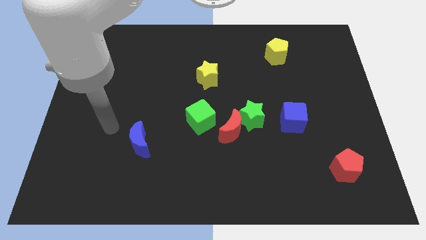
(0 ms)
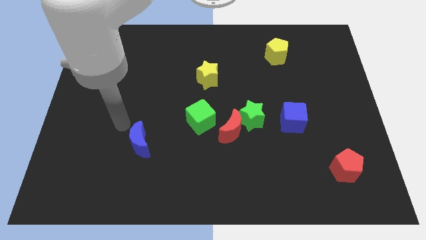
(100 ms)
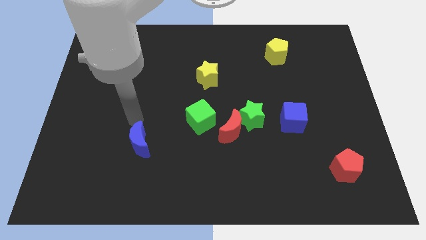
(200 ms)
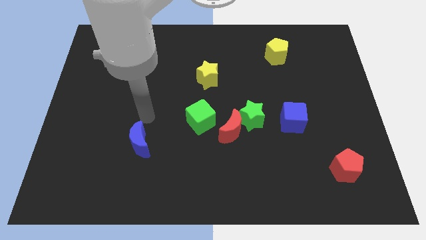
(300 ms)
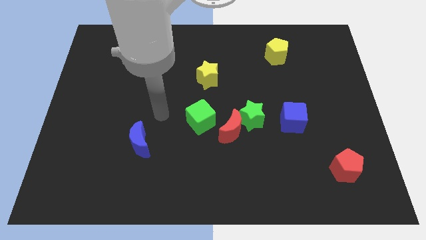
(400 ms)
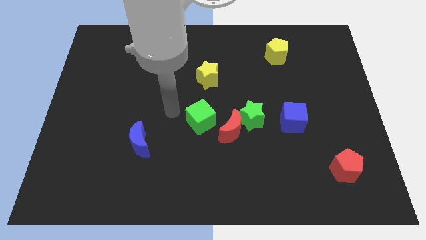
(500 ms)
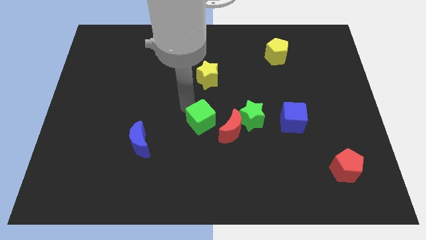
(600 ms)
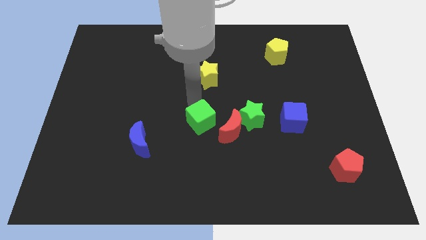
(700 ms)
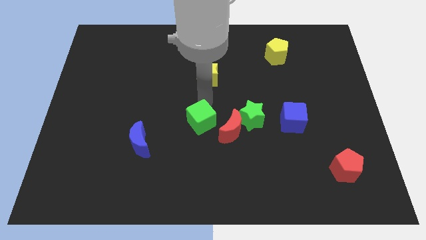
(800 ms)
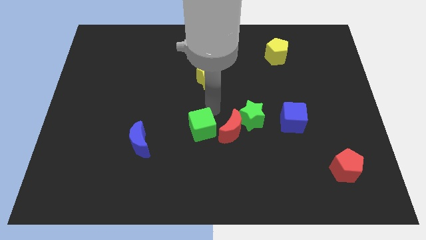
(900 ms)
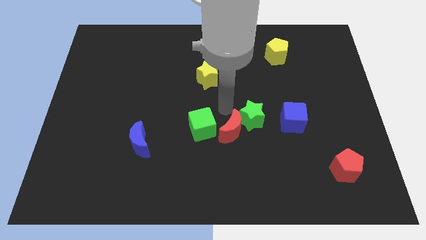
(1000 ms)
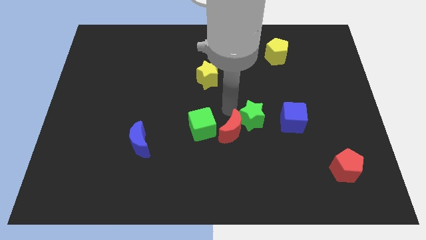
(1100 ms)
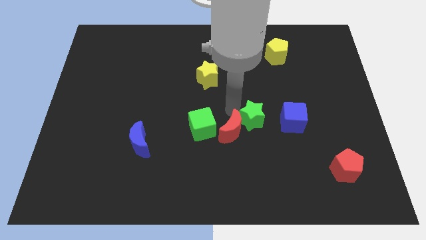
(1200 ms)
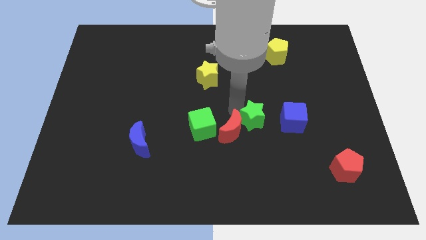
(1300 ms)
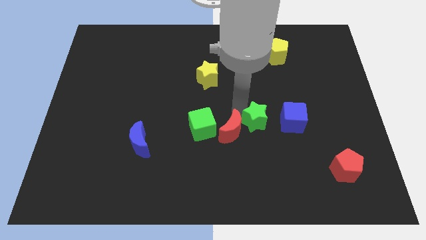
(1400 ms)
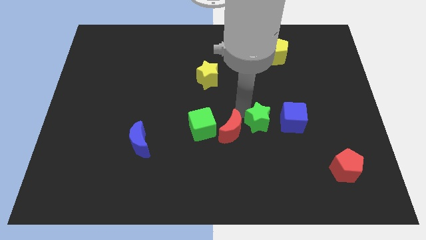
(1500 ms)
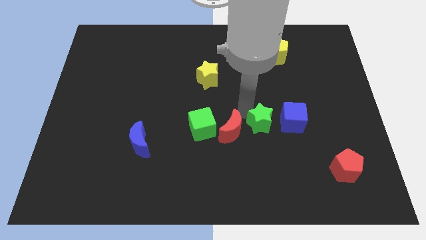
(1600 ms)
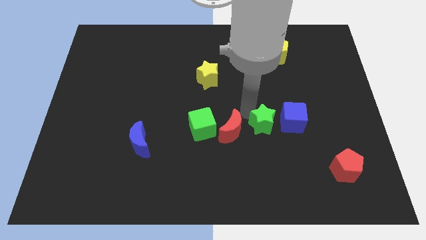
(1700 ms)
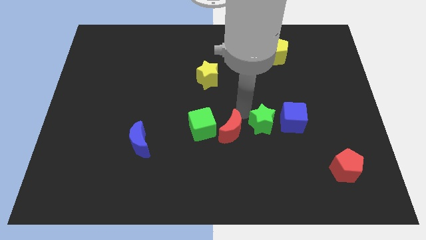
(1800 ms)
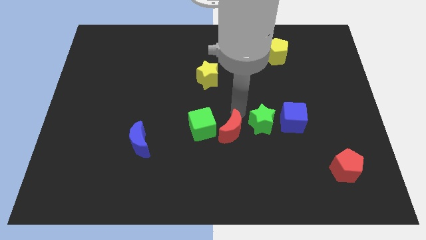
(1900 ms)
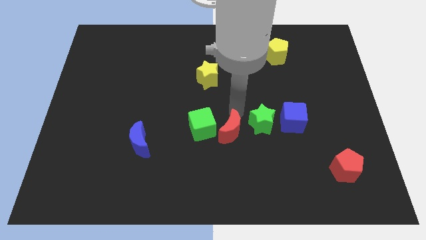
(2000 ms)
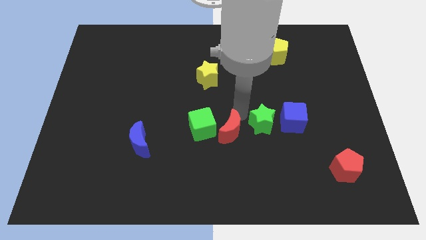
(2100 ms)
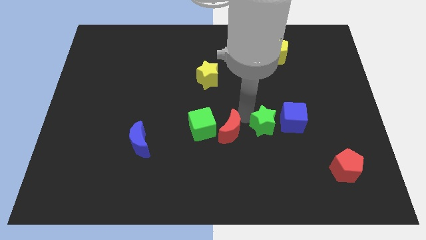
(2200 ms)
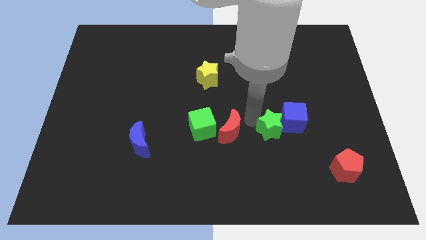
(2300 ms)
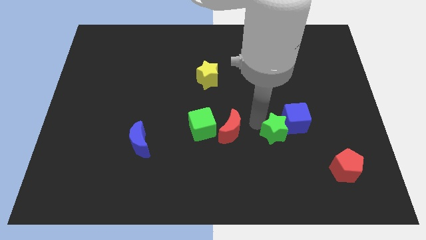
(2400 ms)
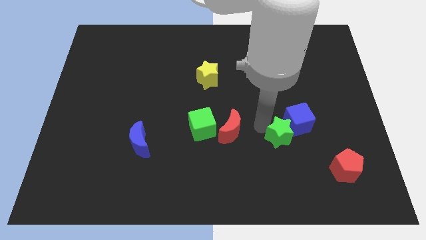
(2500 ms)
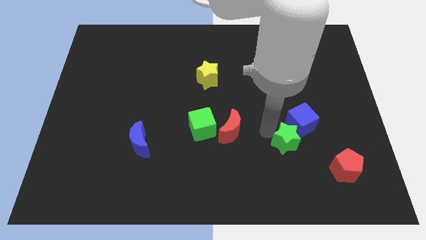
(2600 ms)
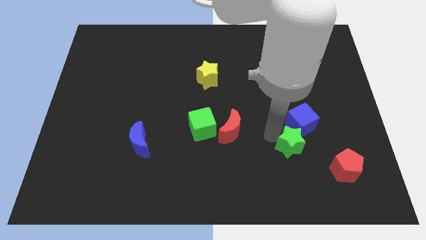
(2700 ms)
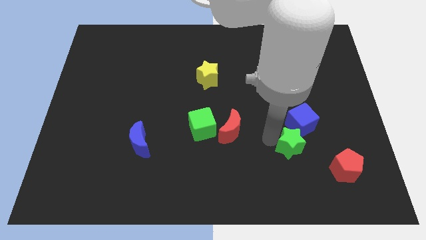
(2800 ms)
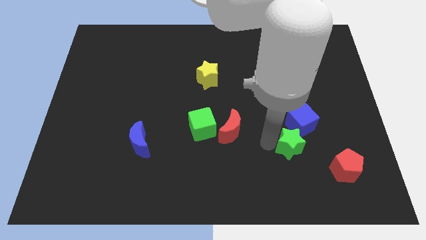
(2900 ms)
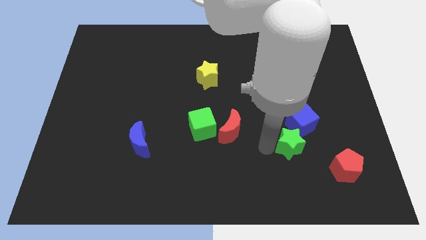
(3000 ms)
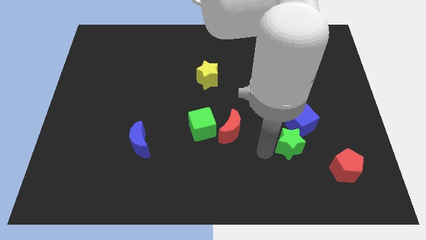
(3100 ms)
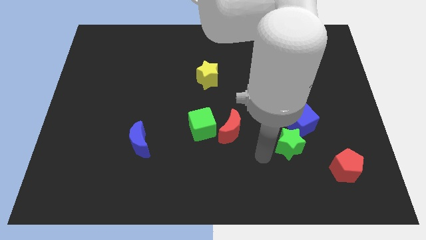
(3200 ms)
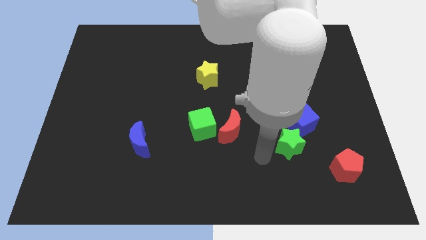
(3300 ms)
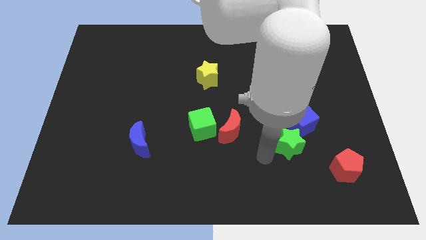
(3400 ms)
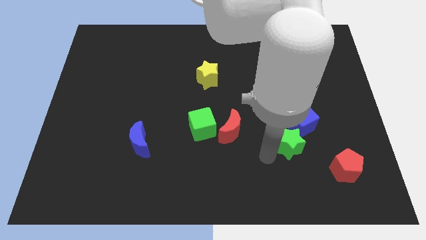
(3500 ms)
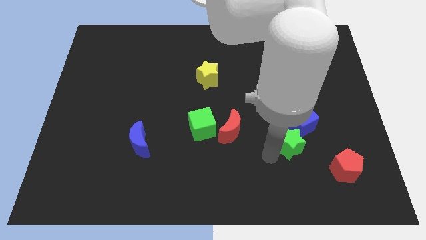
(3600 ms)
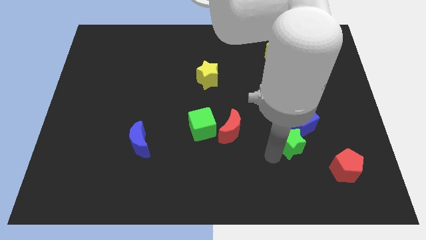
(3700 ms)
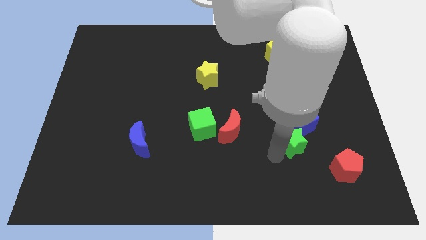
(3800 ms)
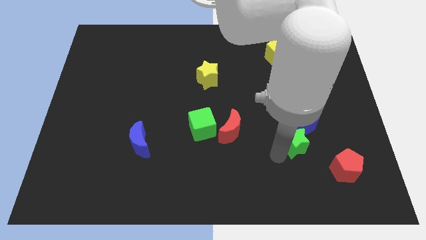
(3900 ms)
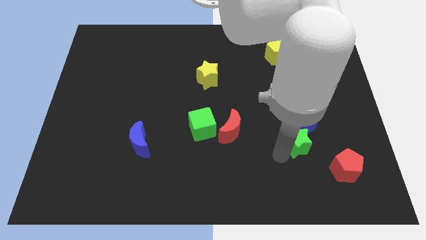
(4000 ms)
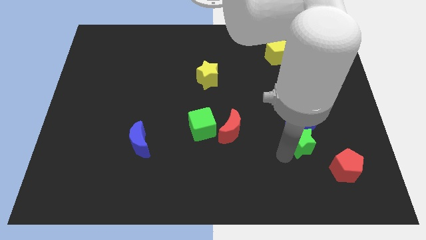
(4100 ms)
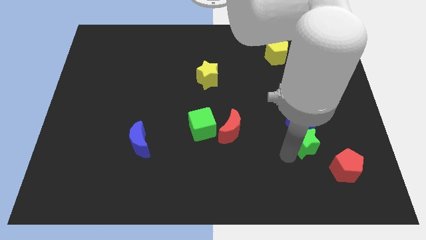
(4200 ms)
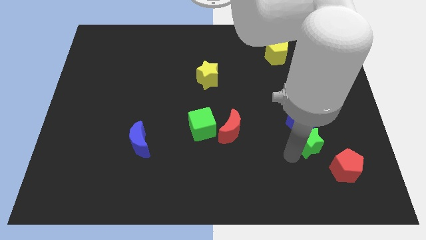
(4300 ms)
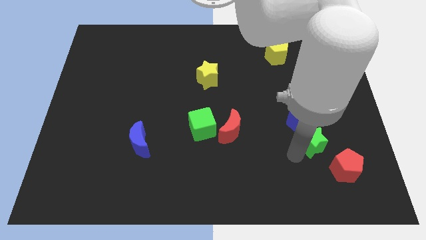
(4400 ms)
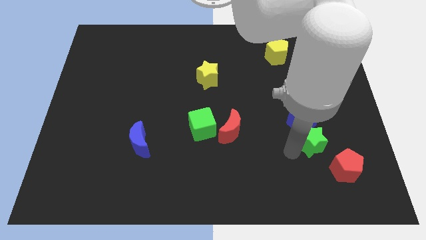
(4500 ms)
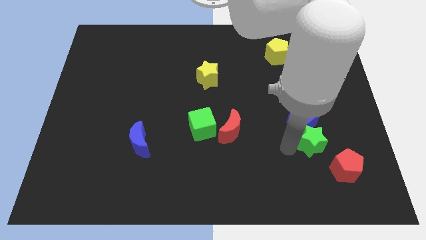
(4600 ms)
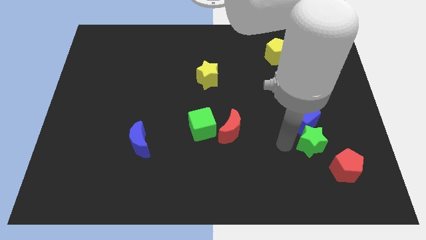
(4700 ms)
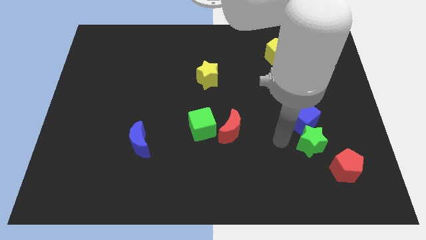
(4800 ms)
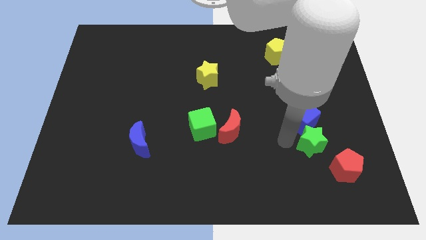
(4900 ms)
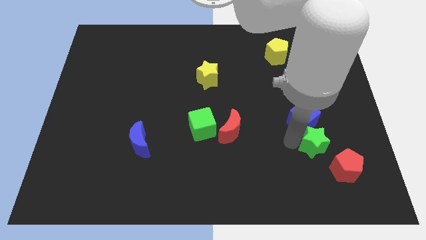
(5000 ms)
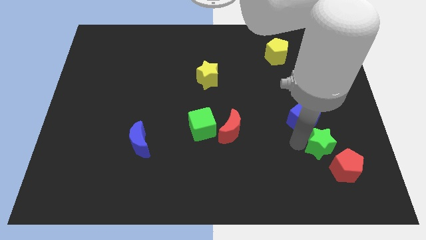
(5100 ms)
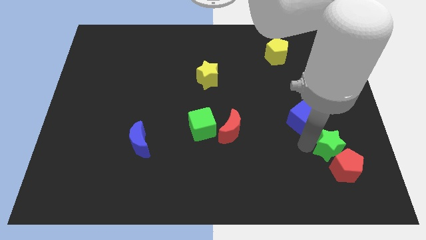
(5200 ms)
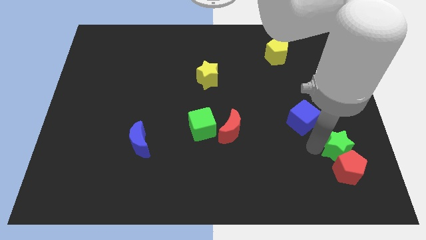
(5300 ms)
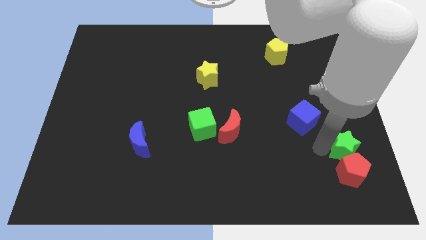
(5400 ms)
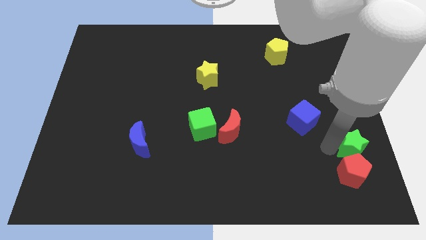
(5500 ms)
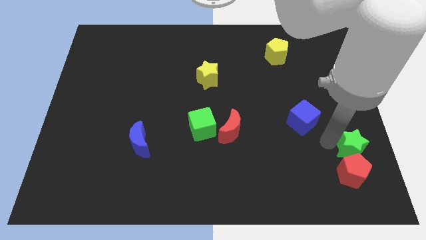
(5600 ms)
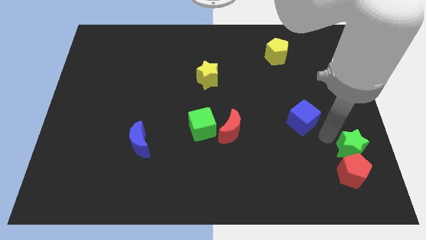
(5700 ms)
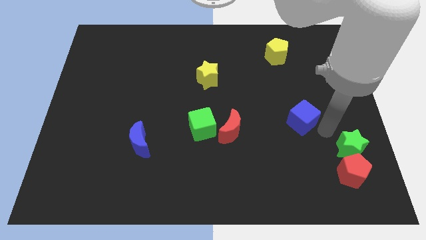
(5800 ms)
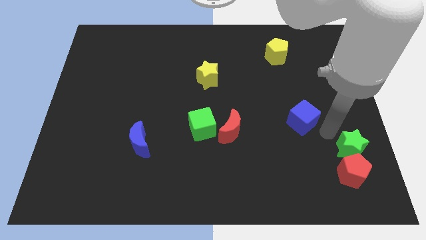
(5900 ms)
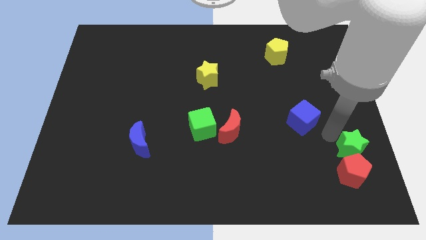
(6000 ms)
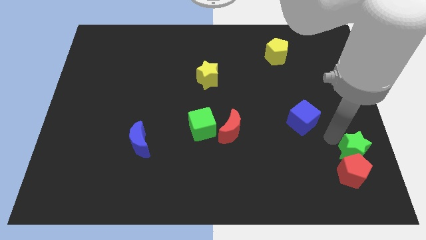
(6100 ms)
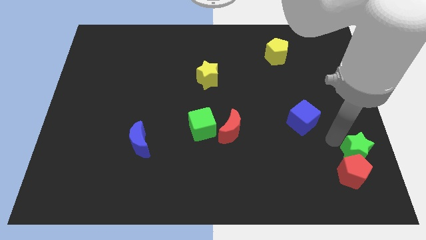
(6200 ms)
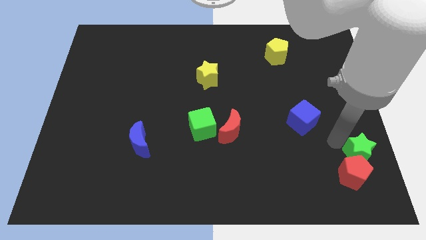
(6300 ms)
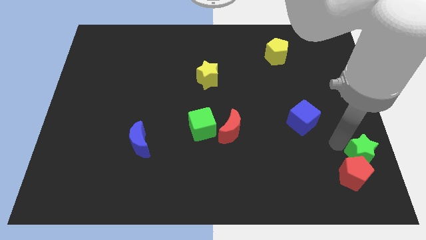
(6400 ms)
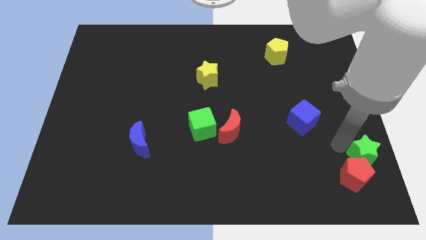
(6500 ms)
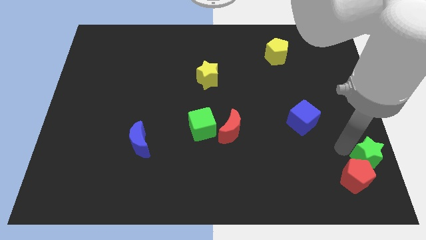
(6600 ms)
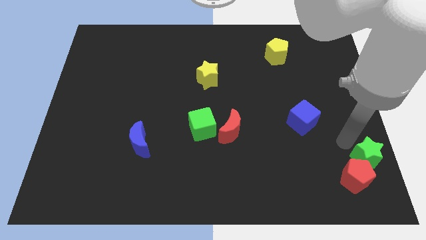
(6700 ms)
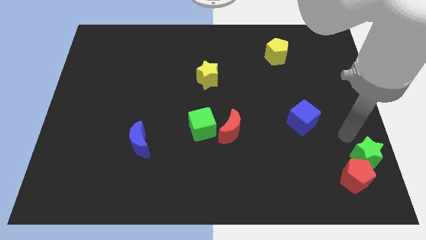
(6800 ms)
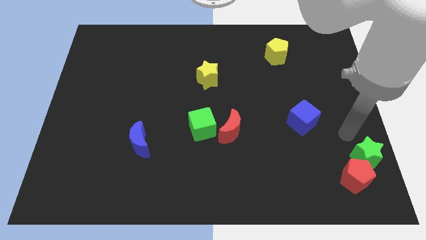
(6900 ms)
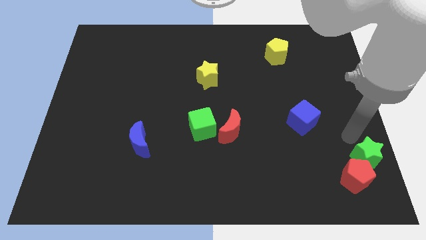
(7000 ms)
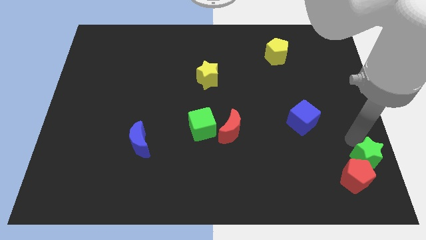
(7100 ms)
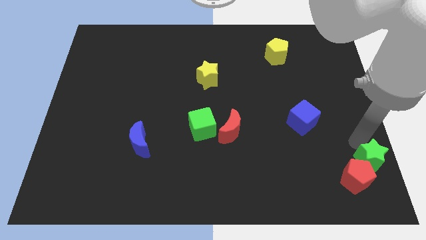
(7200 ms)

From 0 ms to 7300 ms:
move the green star to the lower right corner
